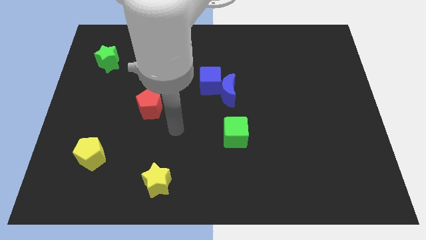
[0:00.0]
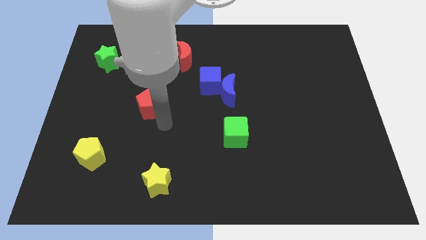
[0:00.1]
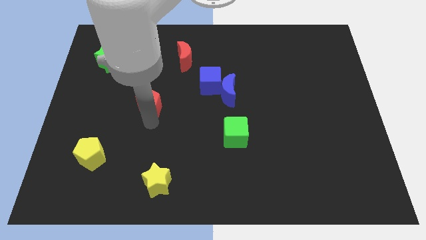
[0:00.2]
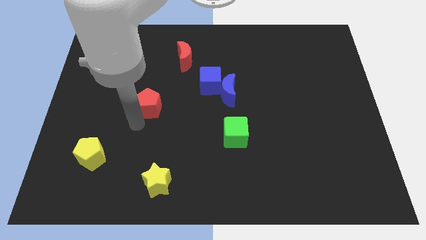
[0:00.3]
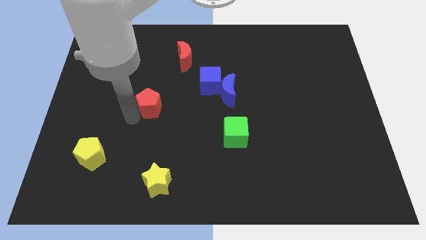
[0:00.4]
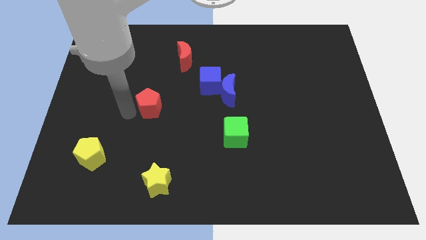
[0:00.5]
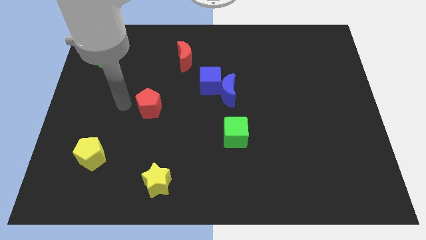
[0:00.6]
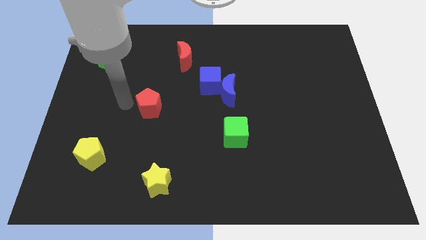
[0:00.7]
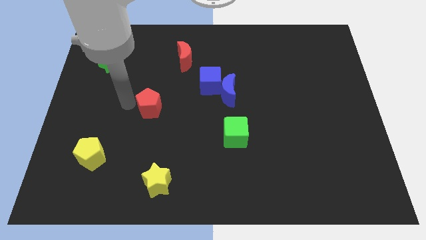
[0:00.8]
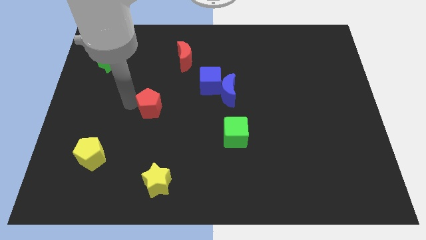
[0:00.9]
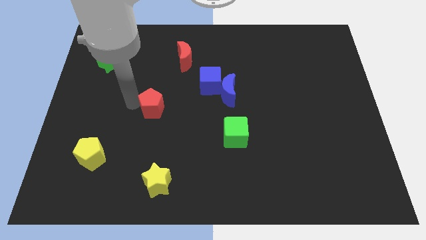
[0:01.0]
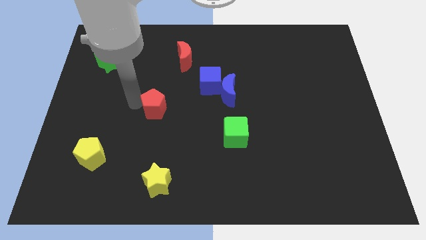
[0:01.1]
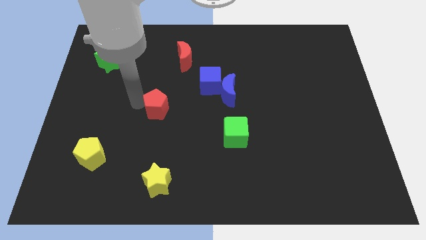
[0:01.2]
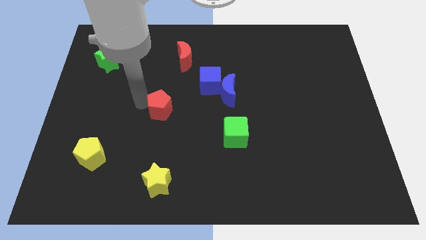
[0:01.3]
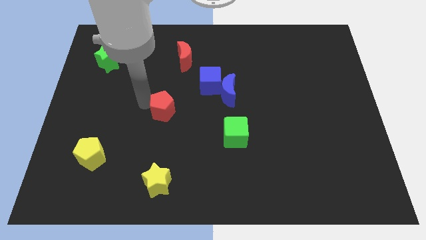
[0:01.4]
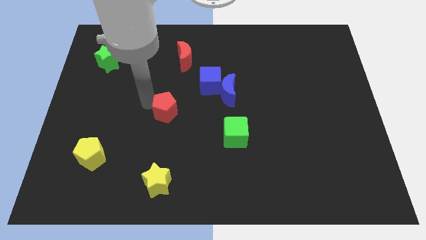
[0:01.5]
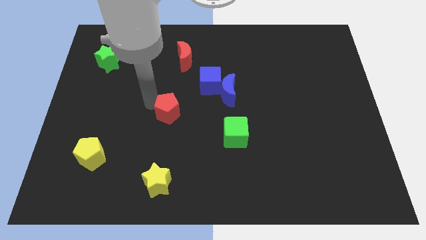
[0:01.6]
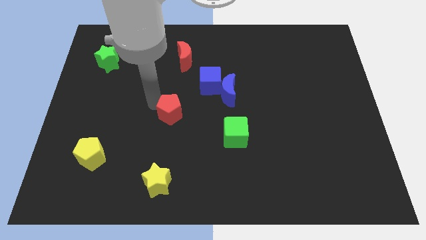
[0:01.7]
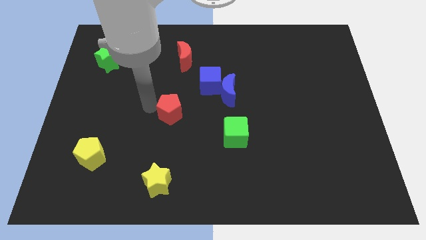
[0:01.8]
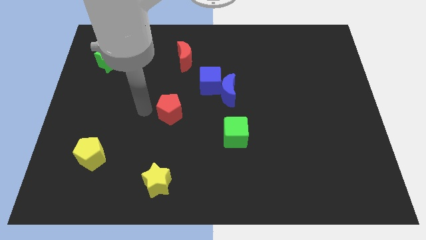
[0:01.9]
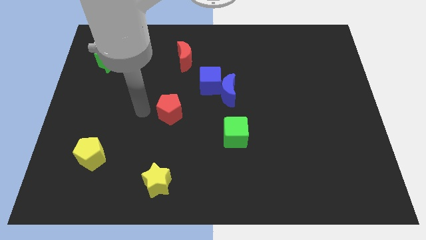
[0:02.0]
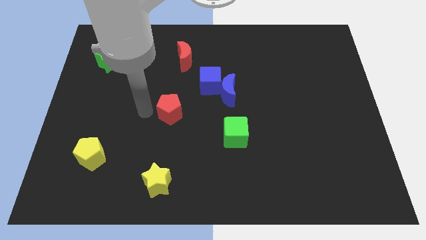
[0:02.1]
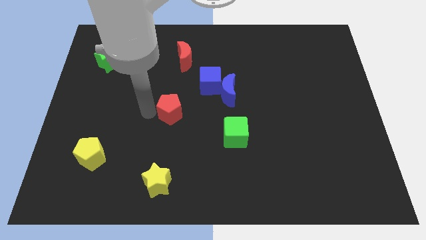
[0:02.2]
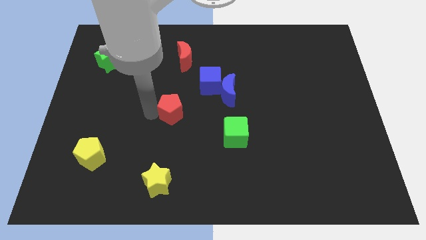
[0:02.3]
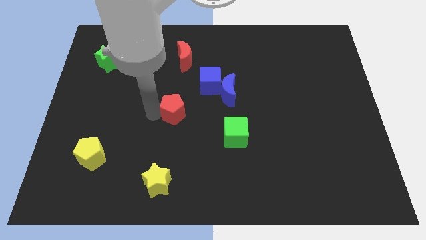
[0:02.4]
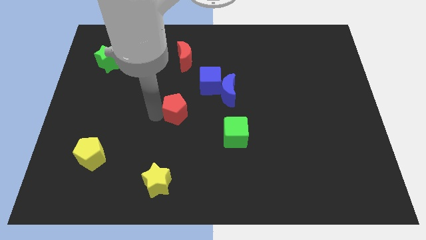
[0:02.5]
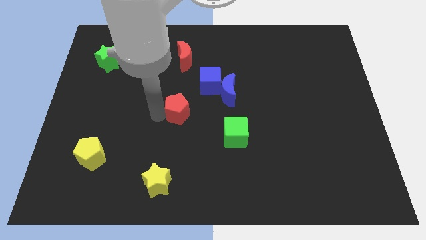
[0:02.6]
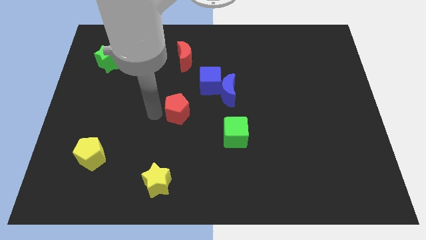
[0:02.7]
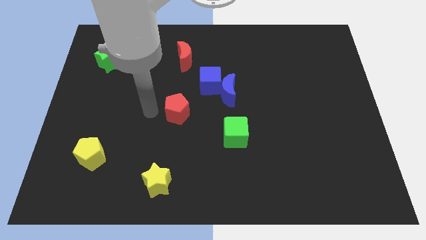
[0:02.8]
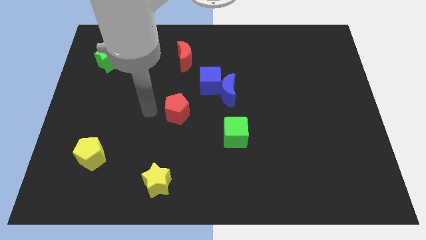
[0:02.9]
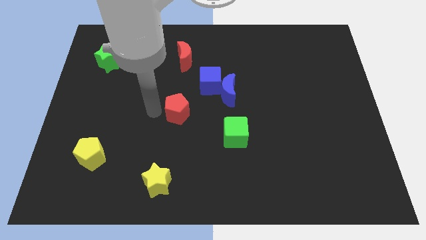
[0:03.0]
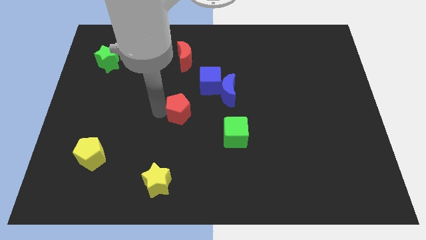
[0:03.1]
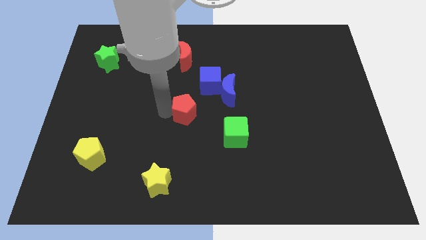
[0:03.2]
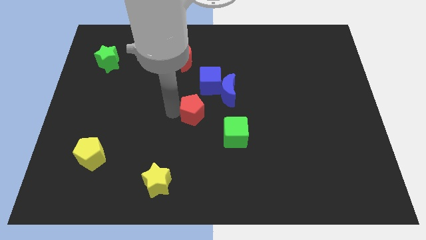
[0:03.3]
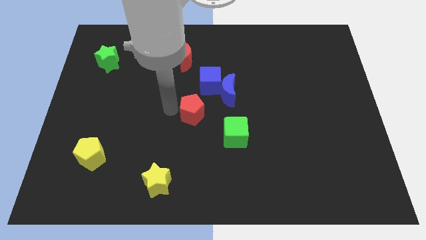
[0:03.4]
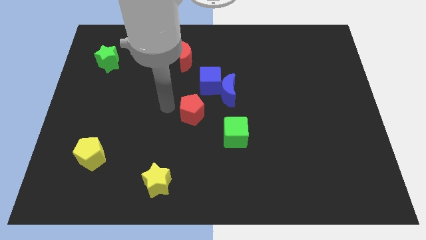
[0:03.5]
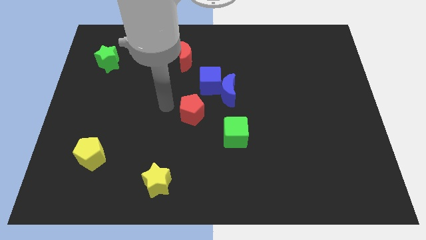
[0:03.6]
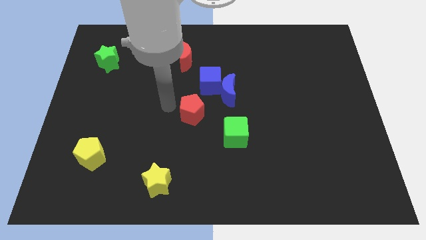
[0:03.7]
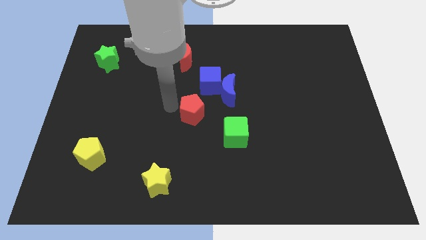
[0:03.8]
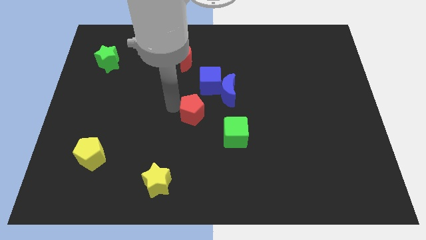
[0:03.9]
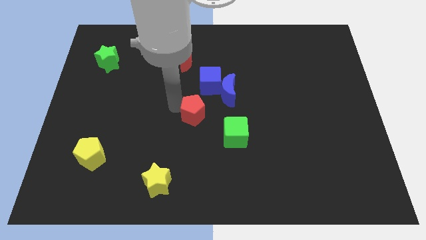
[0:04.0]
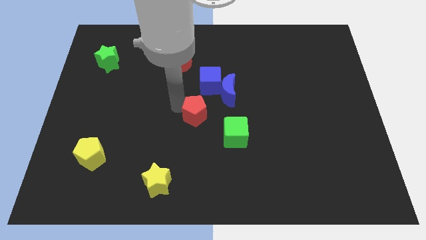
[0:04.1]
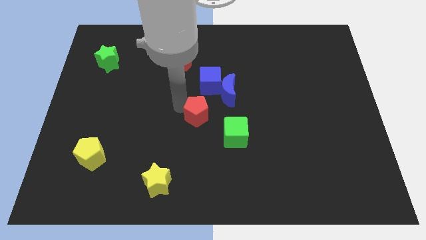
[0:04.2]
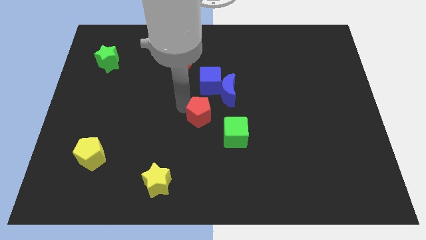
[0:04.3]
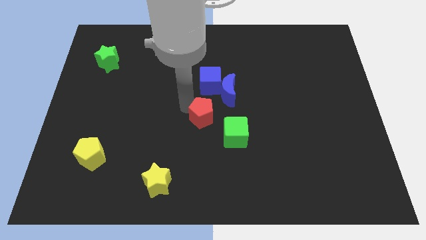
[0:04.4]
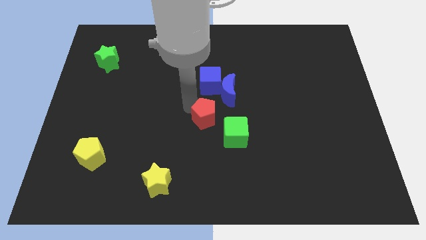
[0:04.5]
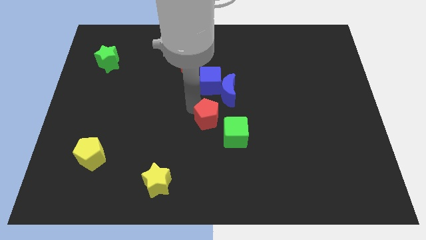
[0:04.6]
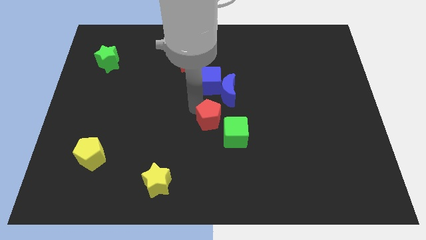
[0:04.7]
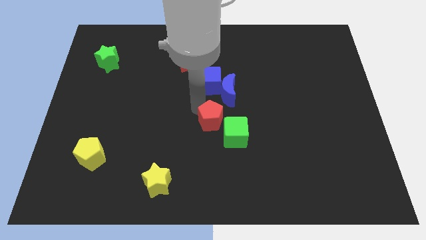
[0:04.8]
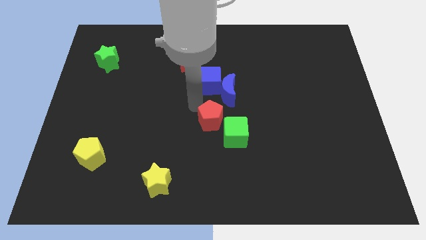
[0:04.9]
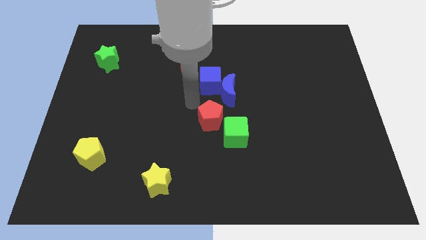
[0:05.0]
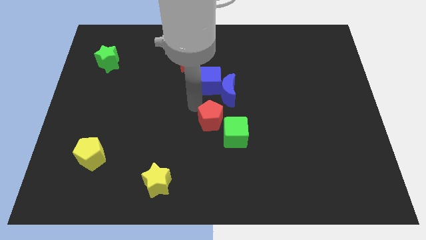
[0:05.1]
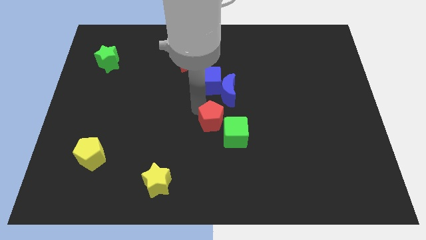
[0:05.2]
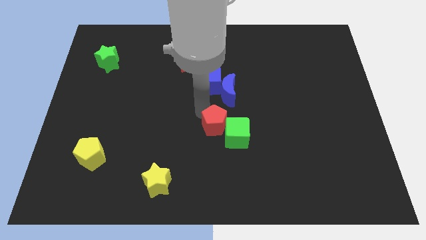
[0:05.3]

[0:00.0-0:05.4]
push the red pentagon towards the green cube

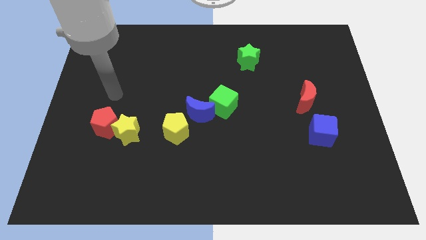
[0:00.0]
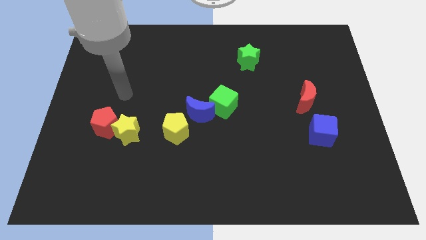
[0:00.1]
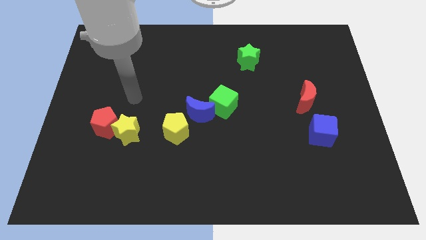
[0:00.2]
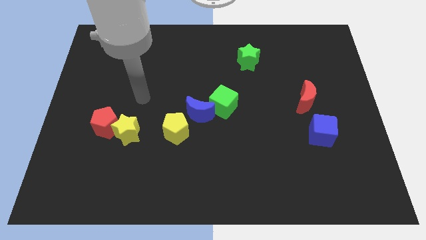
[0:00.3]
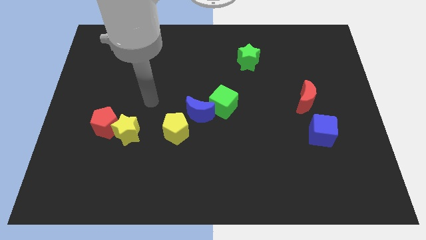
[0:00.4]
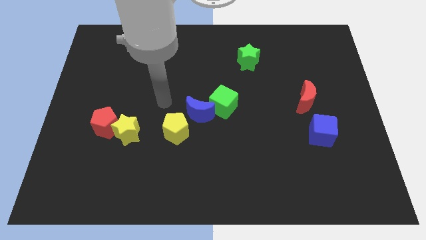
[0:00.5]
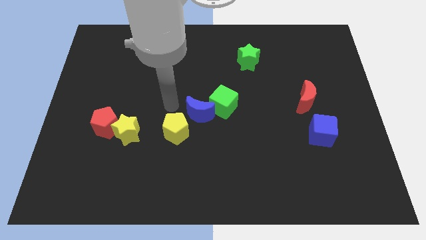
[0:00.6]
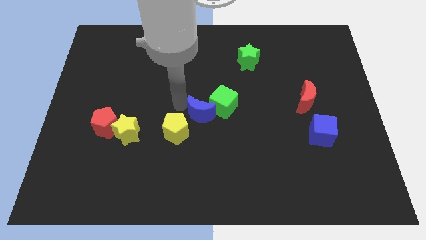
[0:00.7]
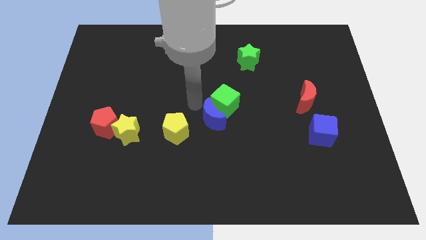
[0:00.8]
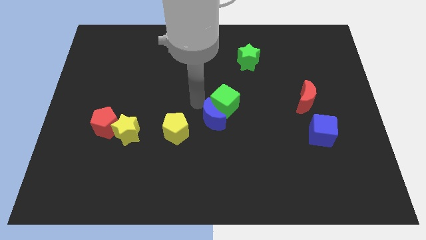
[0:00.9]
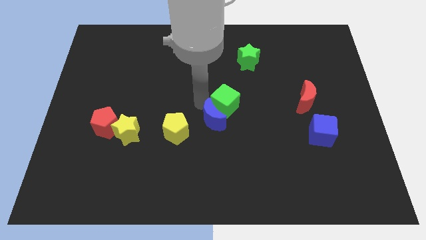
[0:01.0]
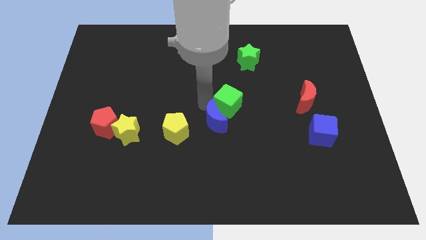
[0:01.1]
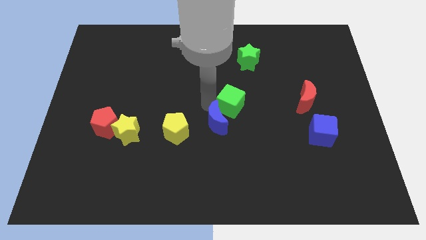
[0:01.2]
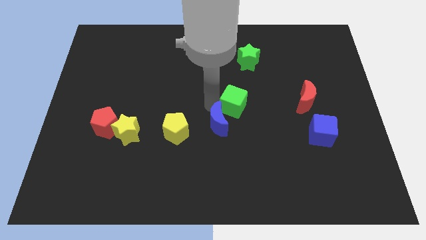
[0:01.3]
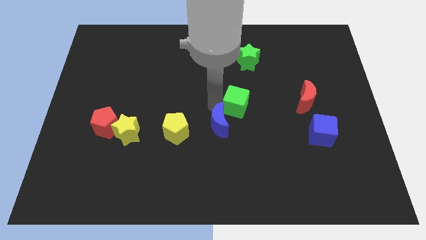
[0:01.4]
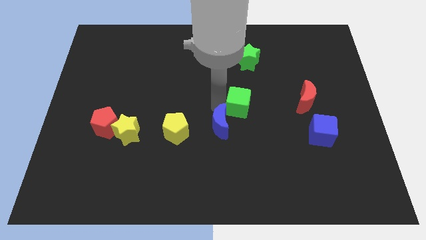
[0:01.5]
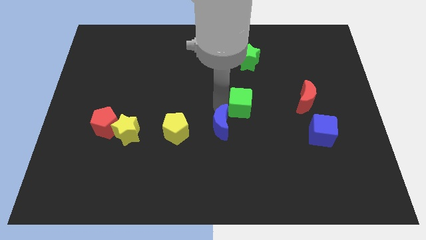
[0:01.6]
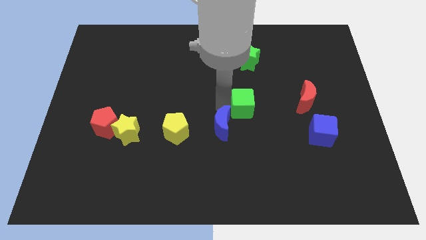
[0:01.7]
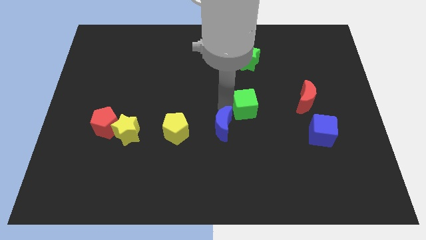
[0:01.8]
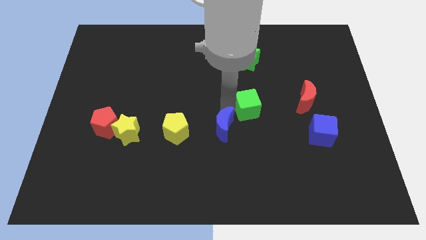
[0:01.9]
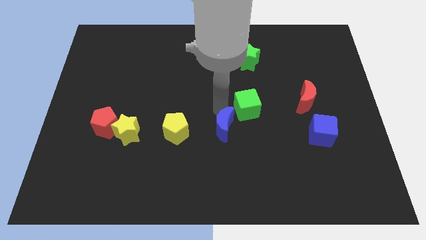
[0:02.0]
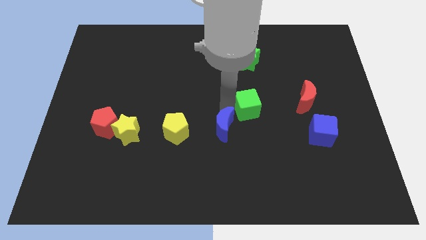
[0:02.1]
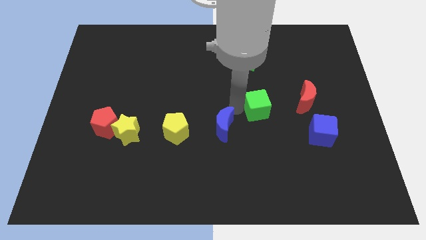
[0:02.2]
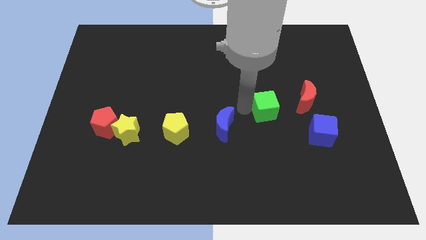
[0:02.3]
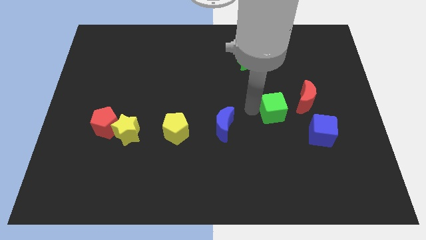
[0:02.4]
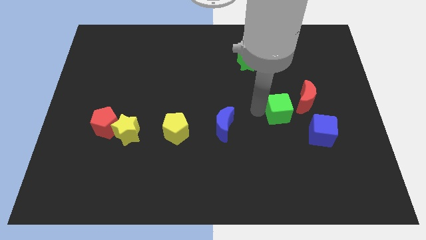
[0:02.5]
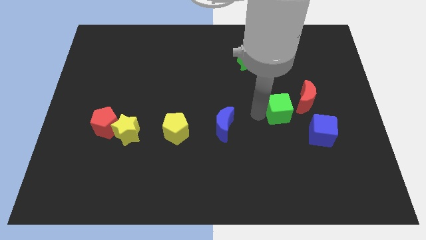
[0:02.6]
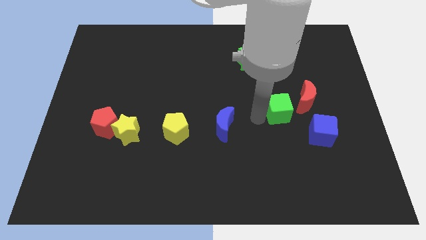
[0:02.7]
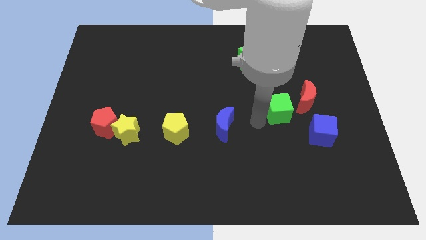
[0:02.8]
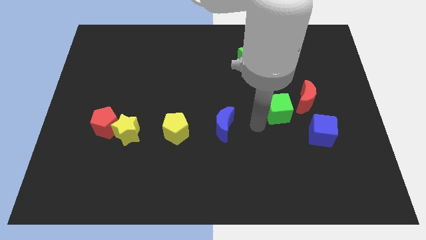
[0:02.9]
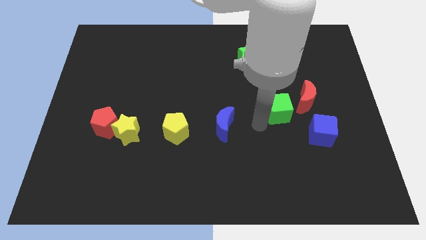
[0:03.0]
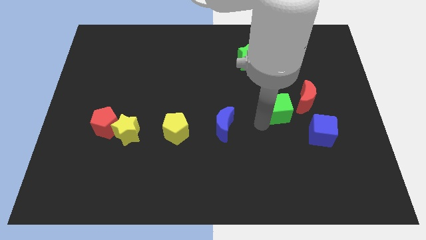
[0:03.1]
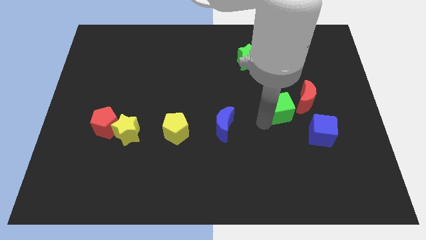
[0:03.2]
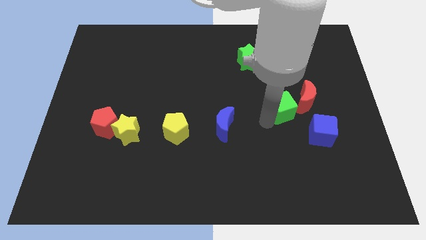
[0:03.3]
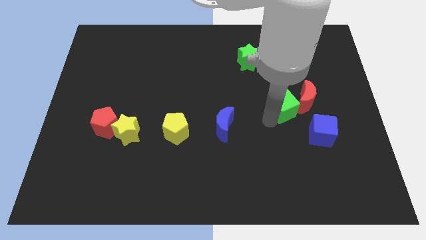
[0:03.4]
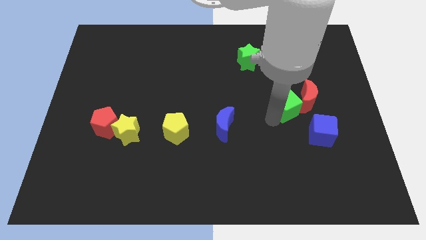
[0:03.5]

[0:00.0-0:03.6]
move the green cube next to the red moon
